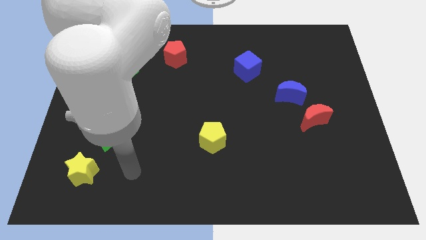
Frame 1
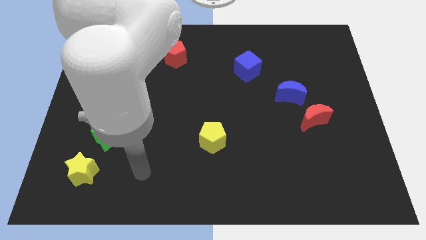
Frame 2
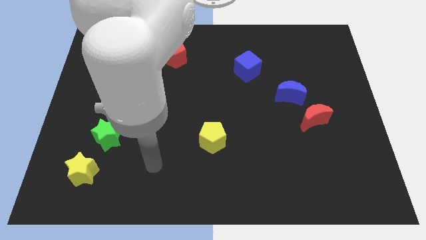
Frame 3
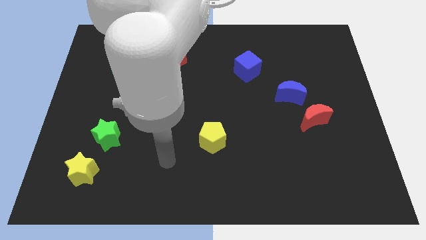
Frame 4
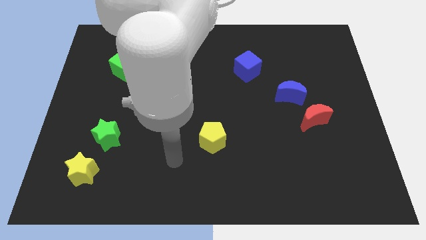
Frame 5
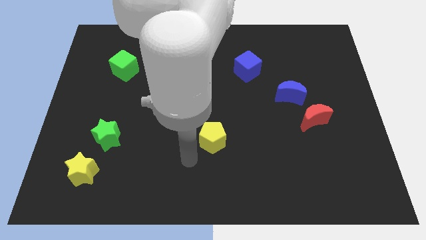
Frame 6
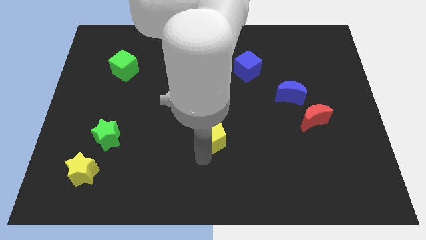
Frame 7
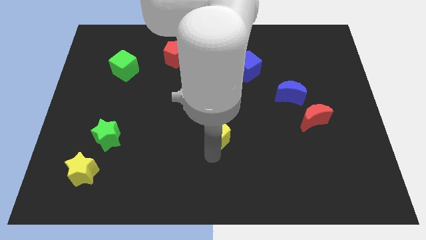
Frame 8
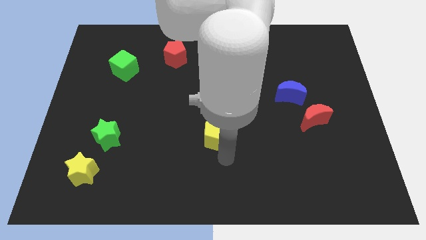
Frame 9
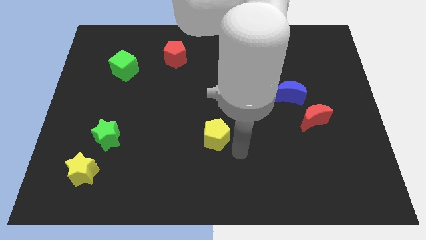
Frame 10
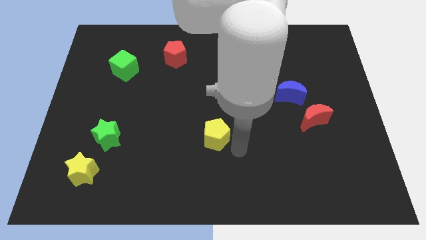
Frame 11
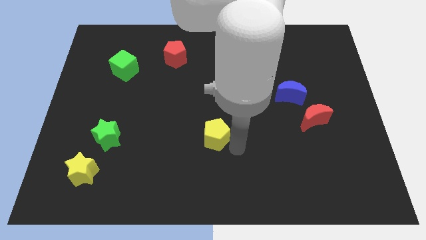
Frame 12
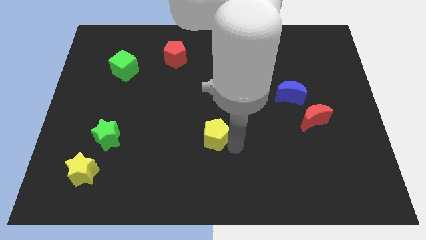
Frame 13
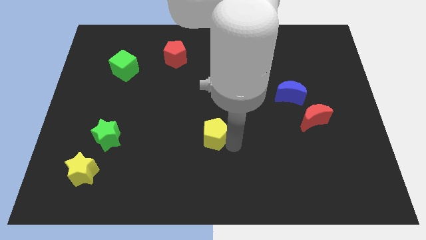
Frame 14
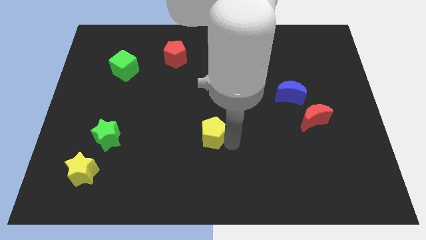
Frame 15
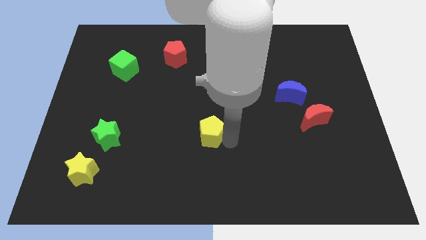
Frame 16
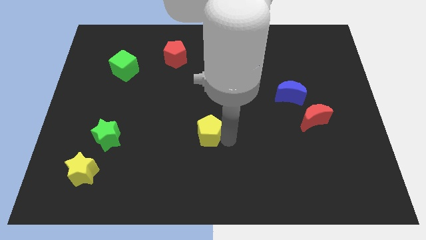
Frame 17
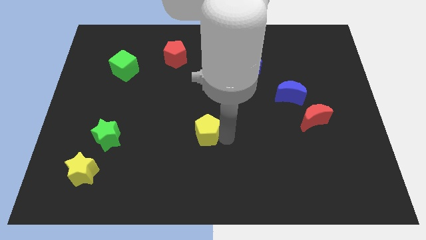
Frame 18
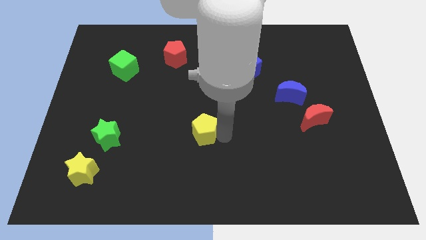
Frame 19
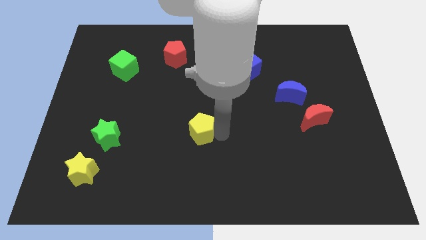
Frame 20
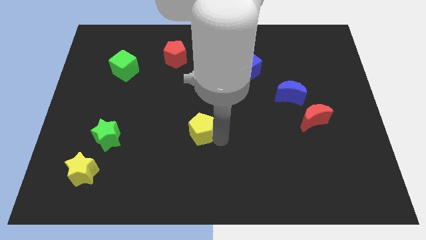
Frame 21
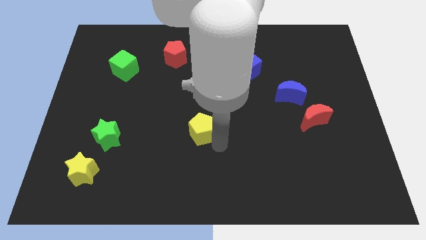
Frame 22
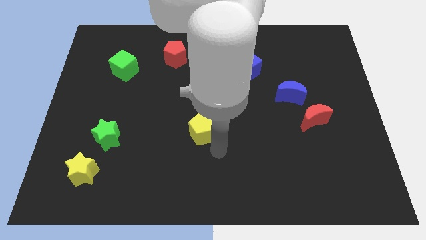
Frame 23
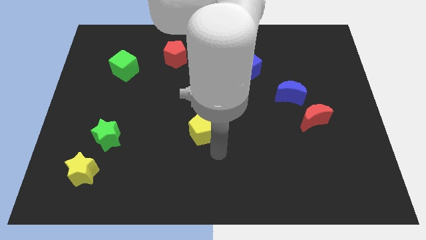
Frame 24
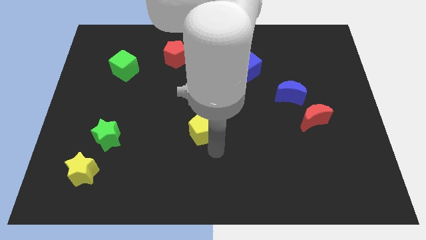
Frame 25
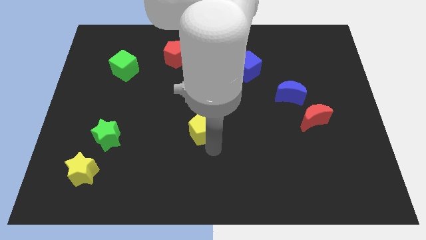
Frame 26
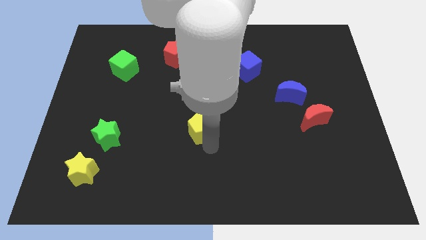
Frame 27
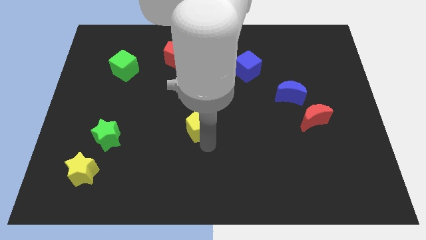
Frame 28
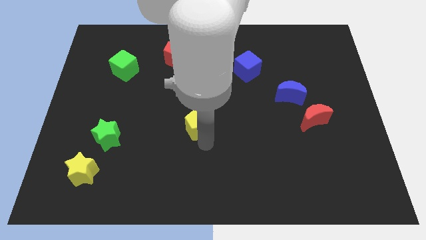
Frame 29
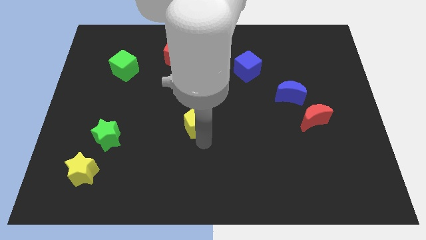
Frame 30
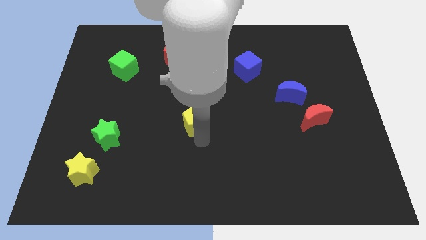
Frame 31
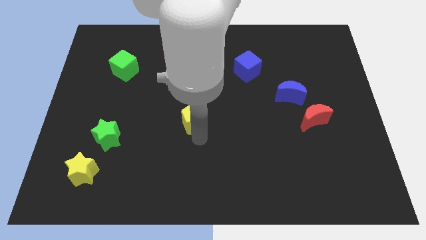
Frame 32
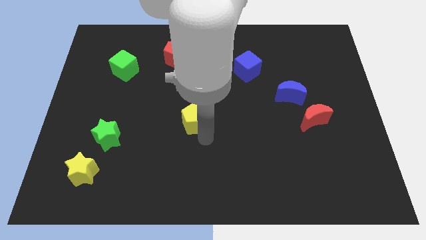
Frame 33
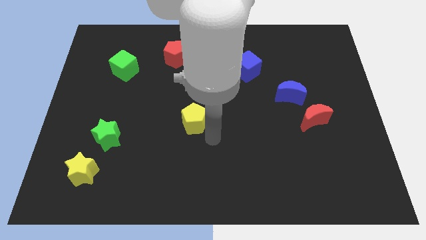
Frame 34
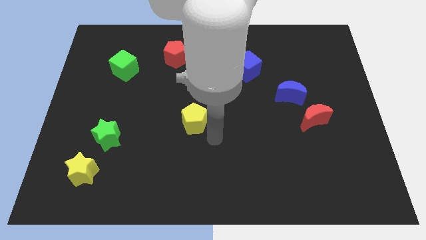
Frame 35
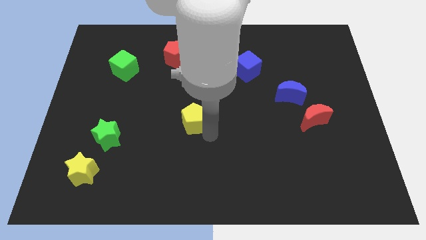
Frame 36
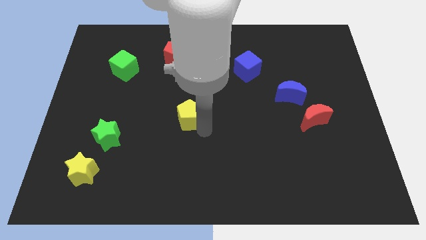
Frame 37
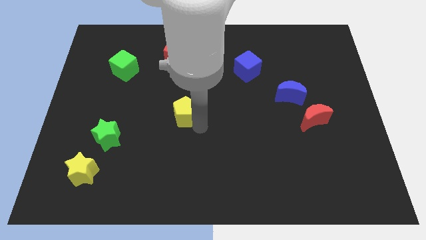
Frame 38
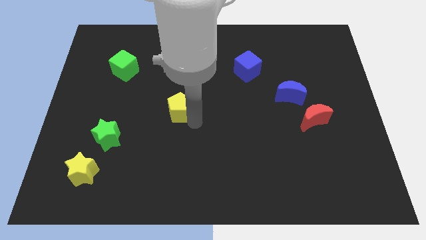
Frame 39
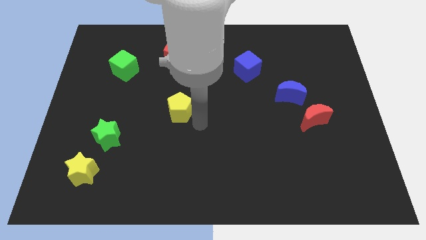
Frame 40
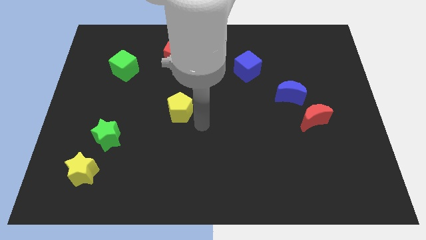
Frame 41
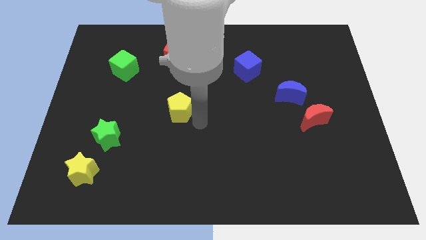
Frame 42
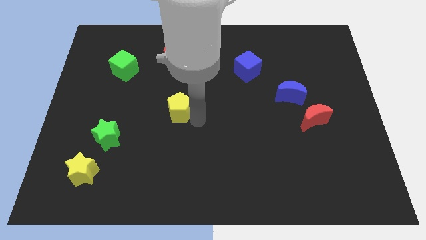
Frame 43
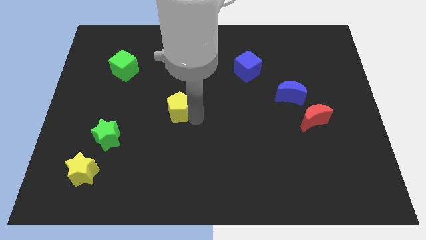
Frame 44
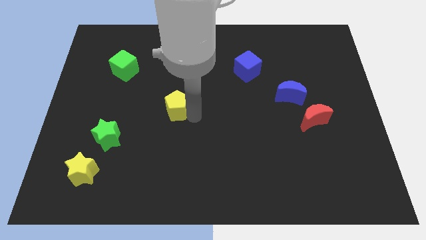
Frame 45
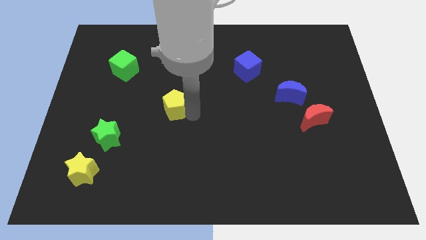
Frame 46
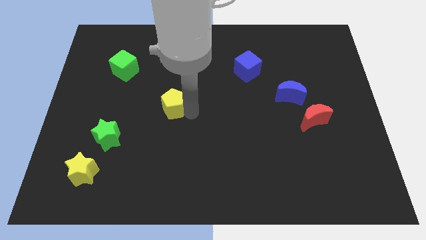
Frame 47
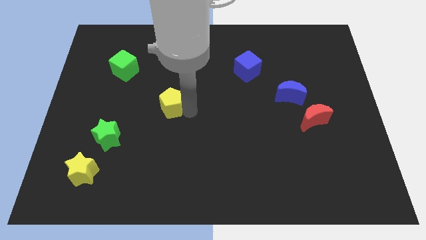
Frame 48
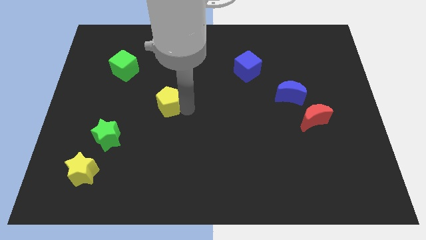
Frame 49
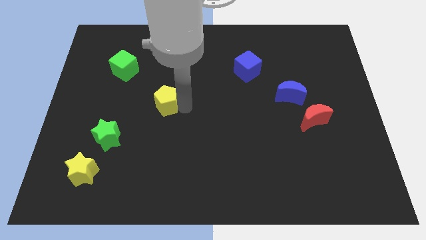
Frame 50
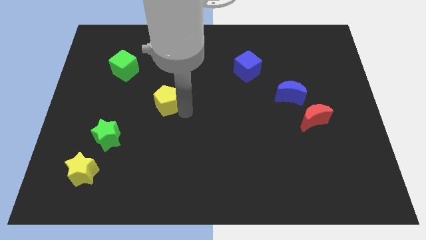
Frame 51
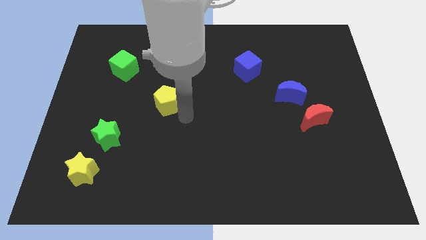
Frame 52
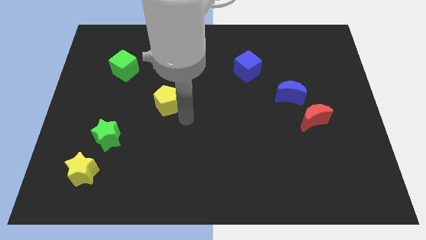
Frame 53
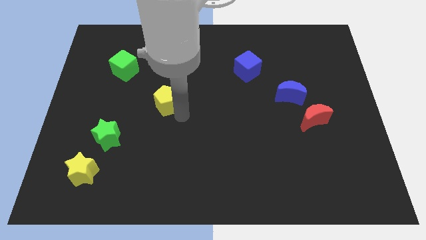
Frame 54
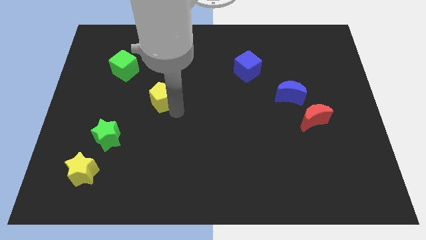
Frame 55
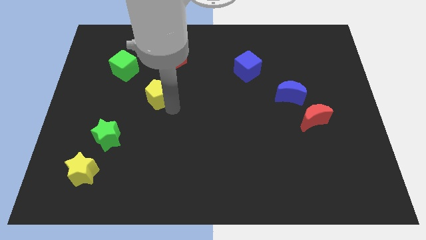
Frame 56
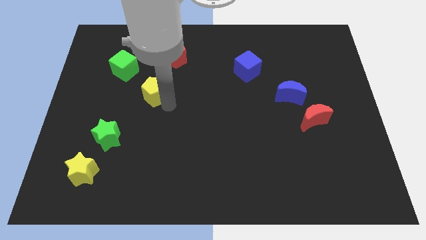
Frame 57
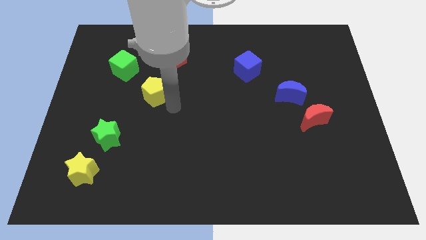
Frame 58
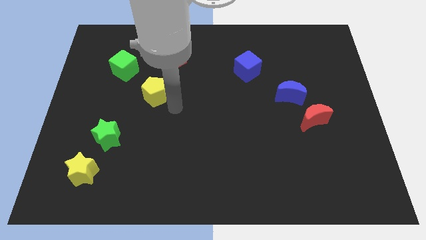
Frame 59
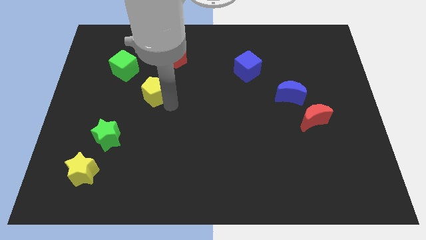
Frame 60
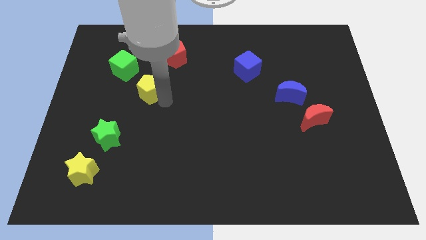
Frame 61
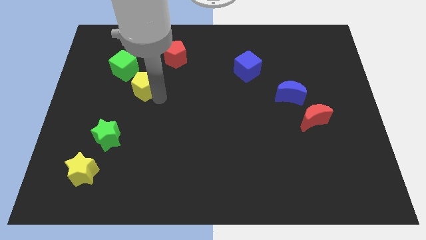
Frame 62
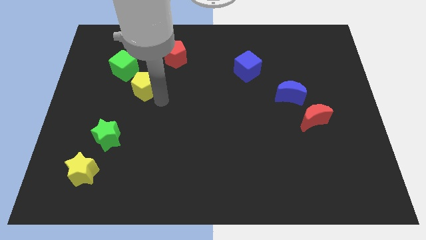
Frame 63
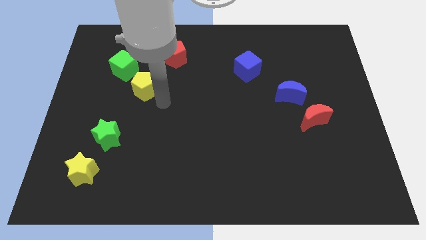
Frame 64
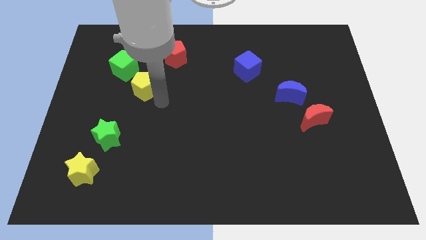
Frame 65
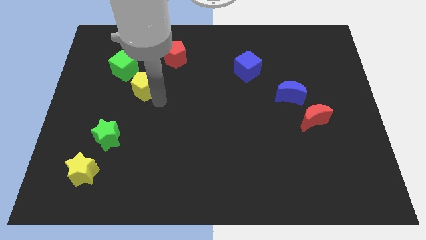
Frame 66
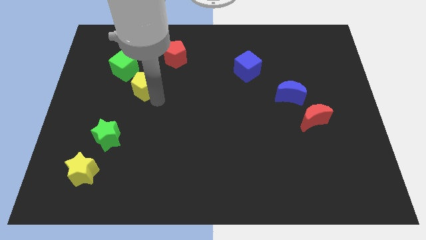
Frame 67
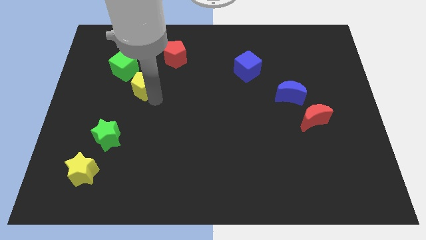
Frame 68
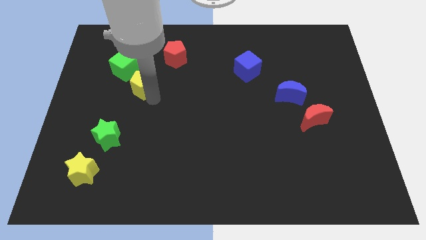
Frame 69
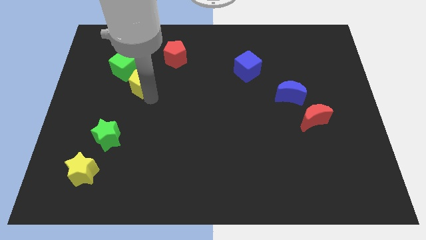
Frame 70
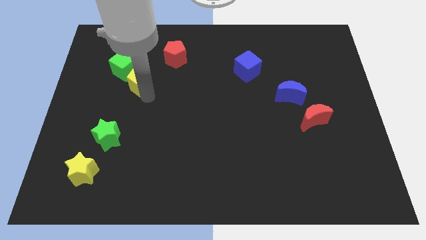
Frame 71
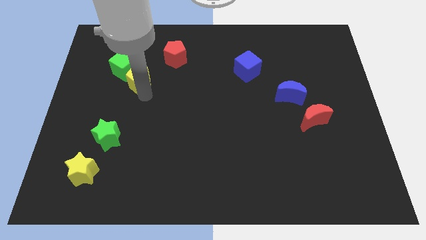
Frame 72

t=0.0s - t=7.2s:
push the yellow pentagon next to the green cube
